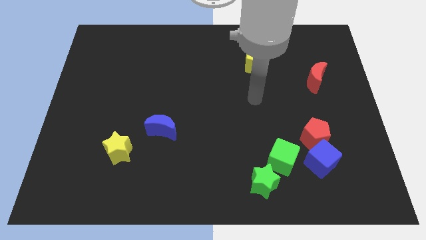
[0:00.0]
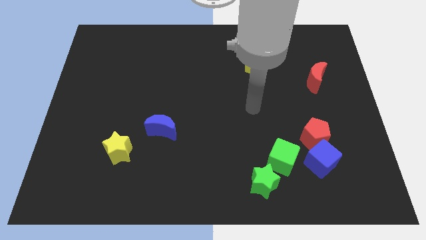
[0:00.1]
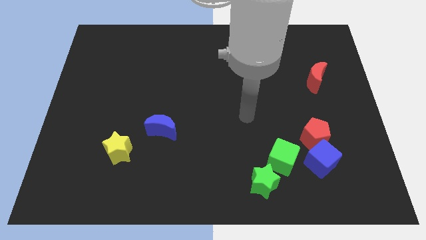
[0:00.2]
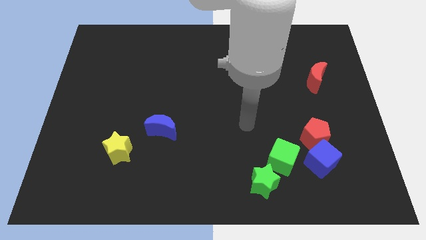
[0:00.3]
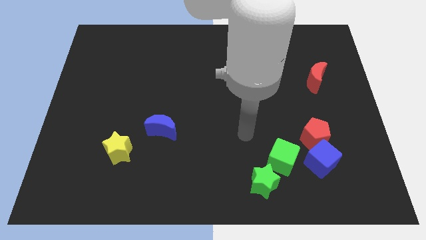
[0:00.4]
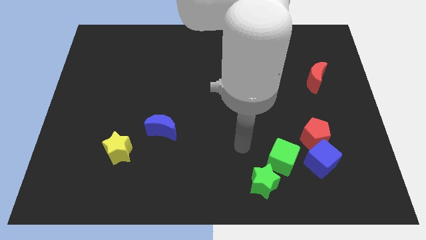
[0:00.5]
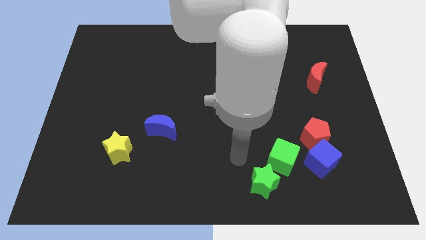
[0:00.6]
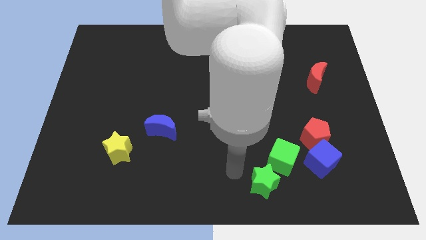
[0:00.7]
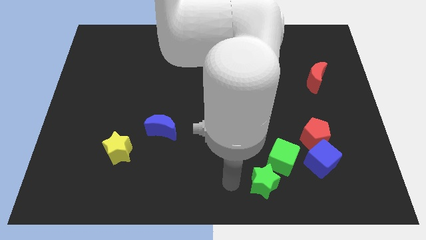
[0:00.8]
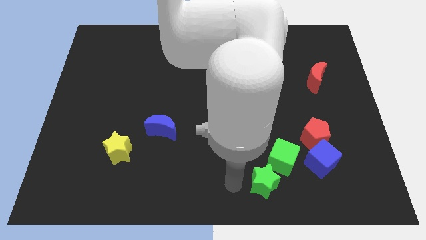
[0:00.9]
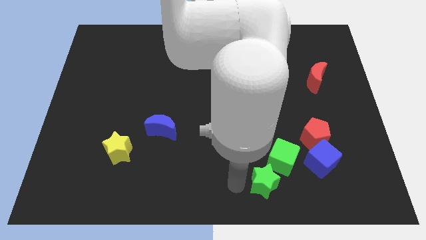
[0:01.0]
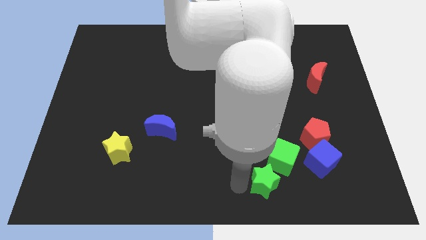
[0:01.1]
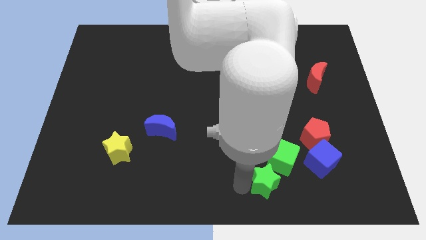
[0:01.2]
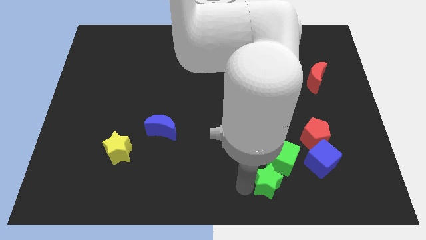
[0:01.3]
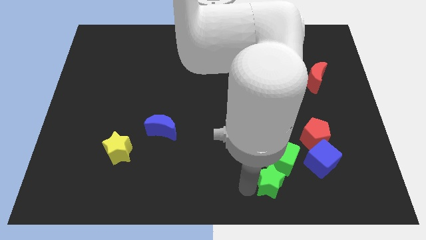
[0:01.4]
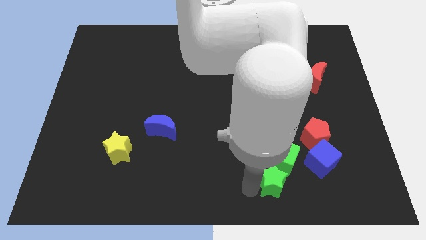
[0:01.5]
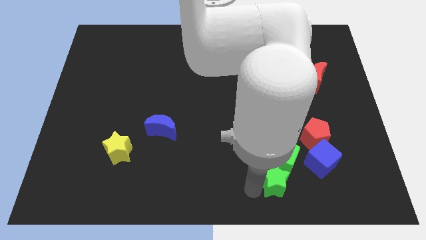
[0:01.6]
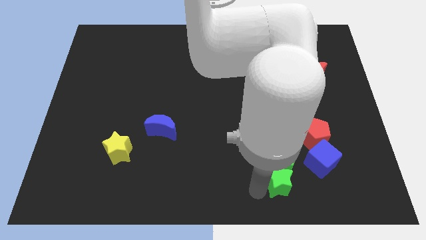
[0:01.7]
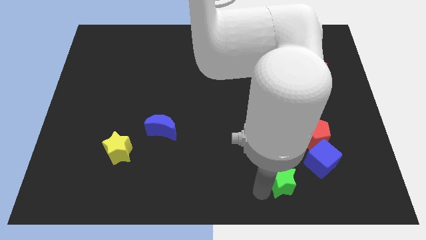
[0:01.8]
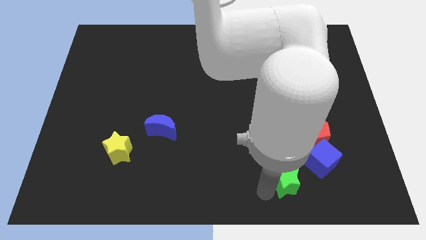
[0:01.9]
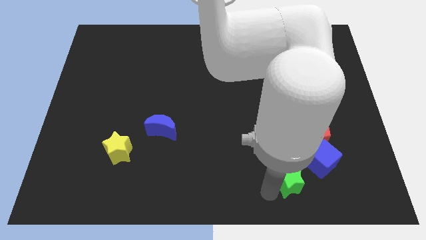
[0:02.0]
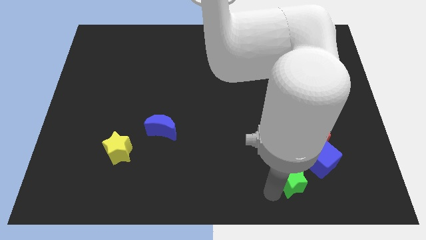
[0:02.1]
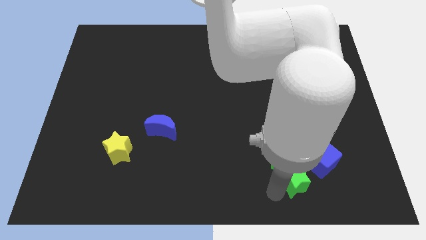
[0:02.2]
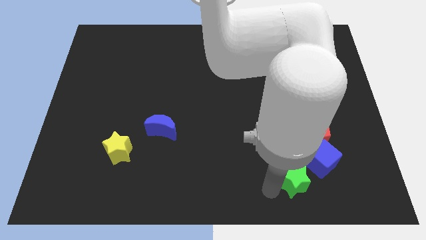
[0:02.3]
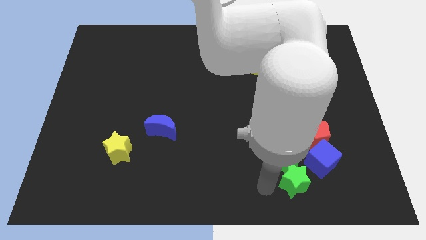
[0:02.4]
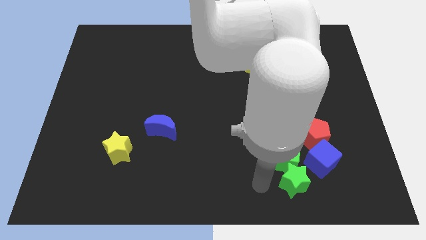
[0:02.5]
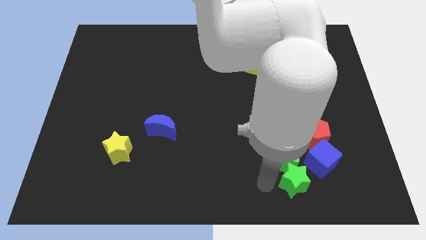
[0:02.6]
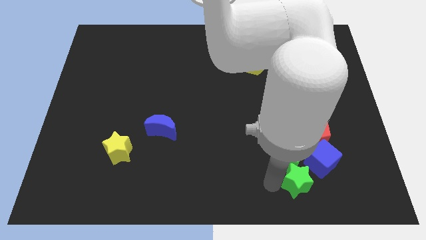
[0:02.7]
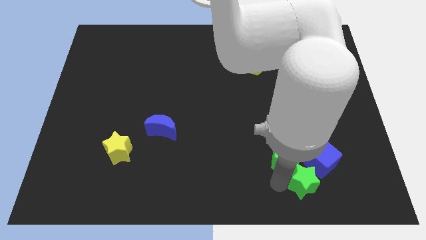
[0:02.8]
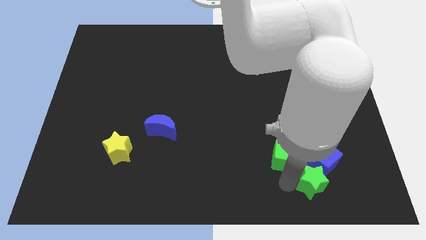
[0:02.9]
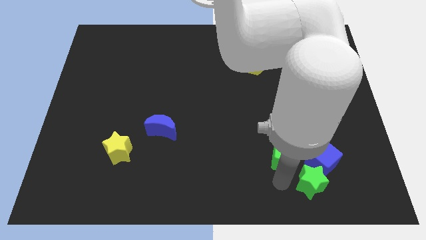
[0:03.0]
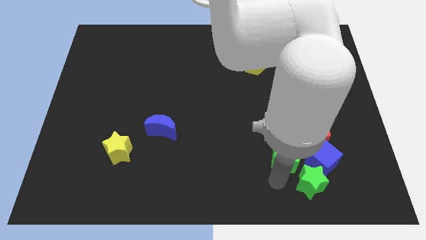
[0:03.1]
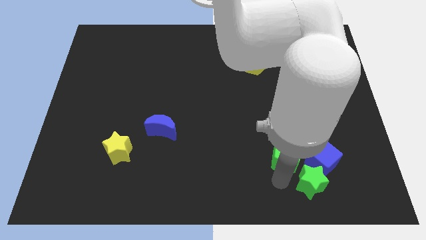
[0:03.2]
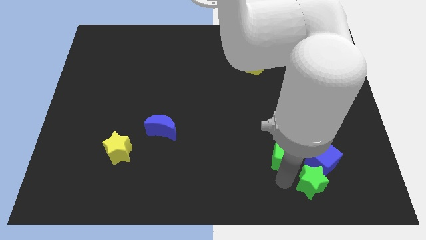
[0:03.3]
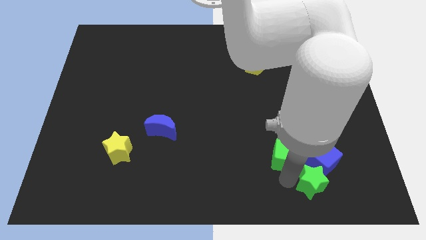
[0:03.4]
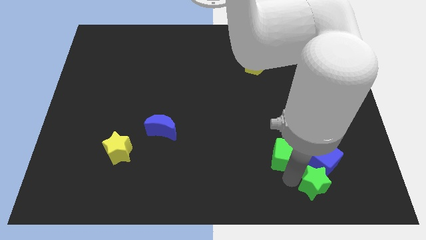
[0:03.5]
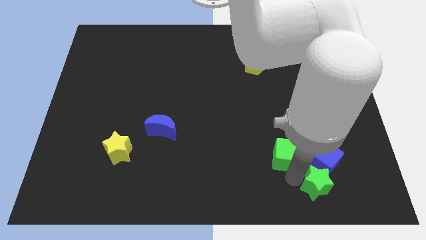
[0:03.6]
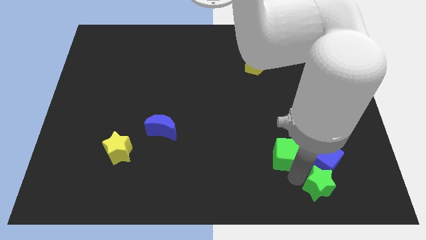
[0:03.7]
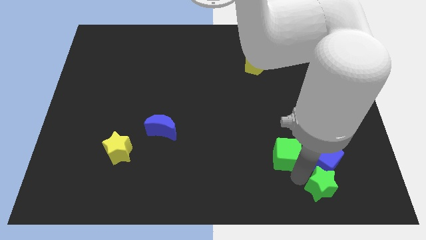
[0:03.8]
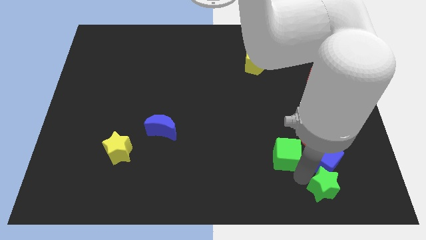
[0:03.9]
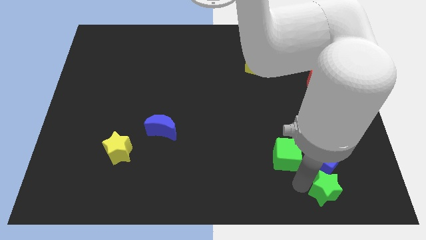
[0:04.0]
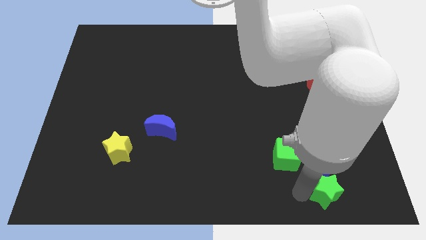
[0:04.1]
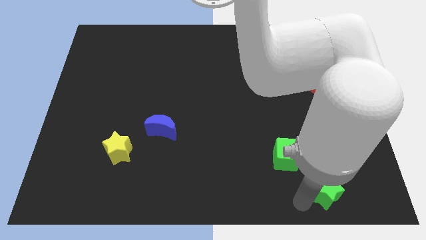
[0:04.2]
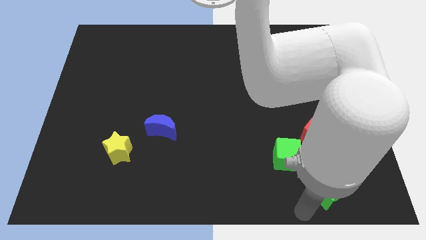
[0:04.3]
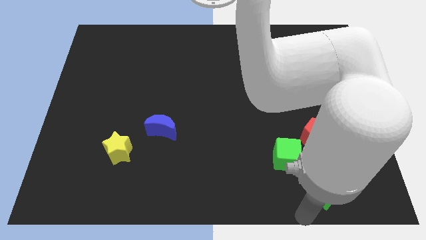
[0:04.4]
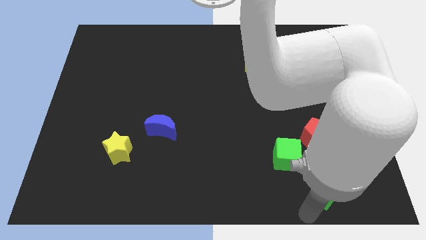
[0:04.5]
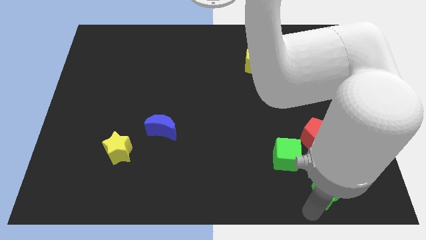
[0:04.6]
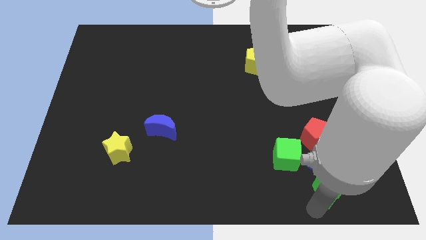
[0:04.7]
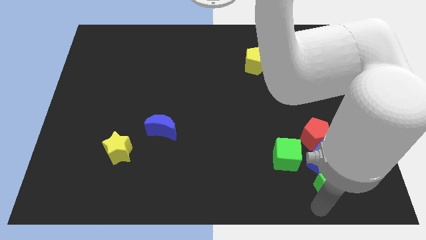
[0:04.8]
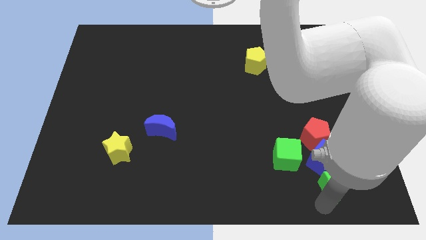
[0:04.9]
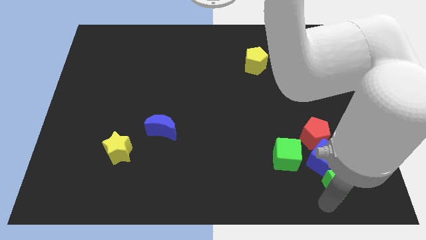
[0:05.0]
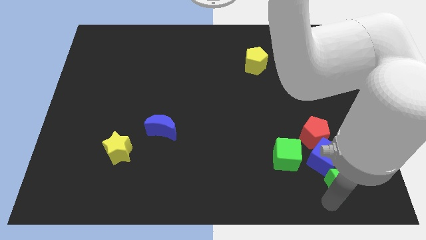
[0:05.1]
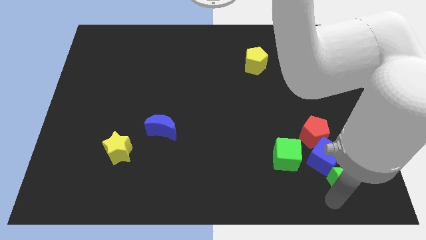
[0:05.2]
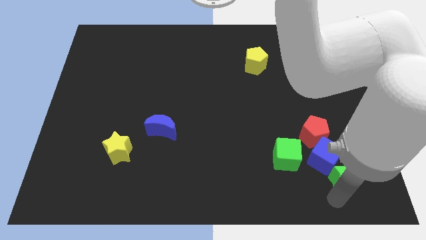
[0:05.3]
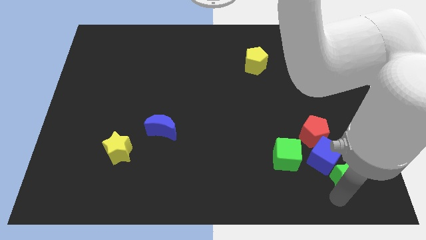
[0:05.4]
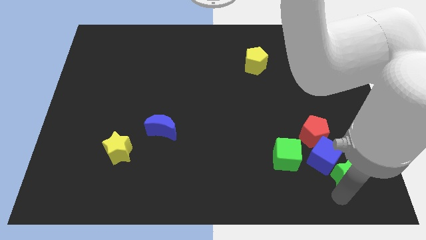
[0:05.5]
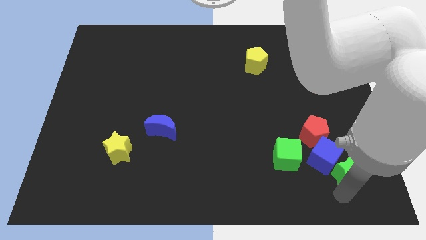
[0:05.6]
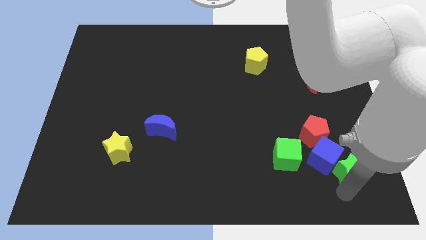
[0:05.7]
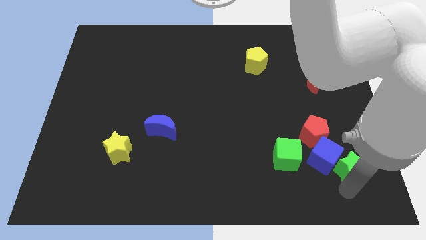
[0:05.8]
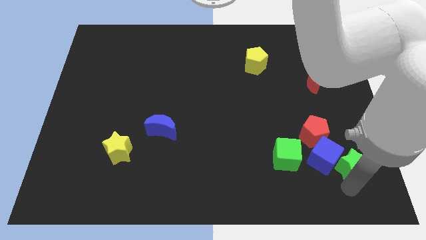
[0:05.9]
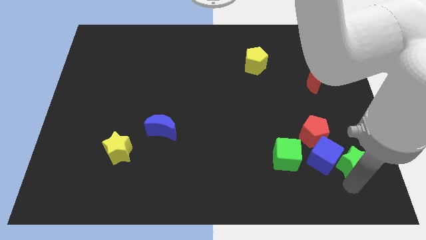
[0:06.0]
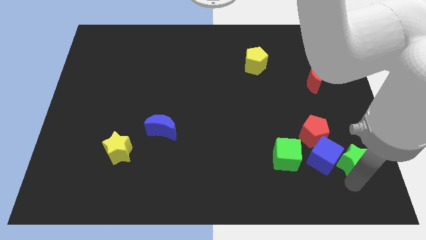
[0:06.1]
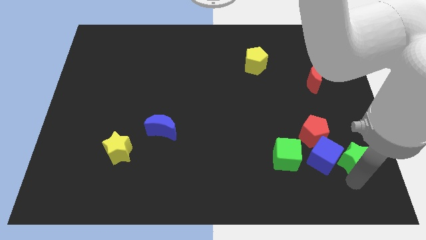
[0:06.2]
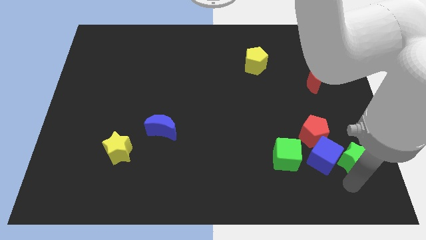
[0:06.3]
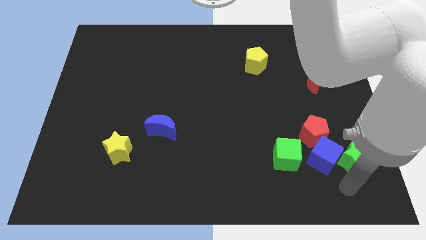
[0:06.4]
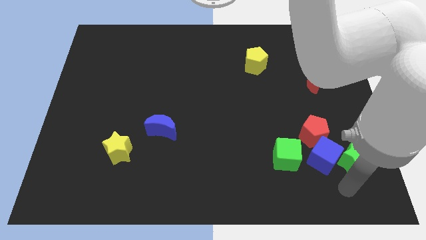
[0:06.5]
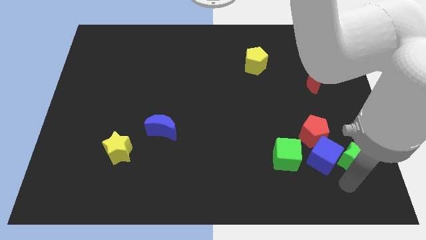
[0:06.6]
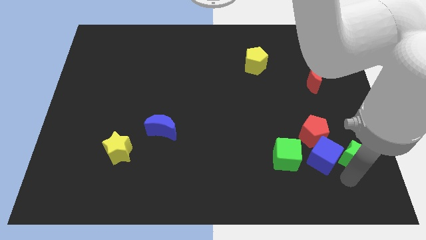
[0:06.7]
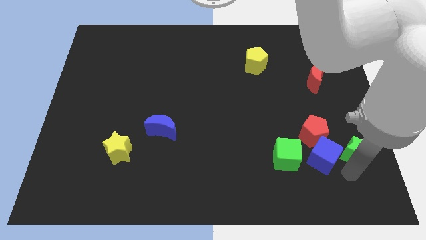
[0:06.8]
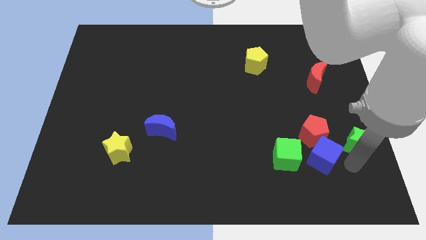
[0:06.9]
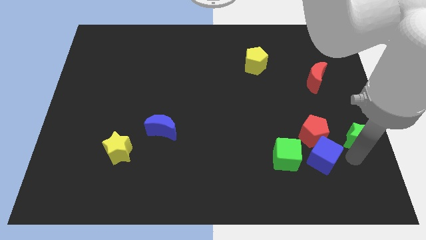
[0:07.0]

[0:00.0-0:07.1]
put the green star to the right side of the board

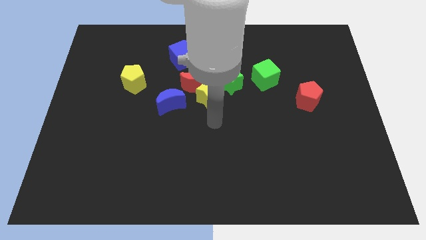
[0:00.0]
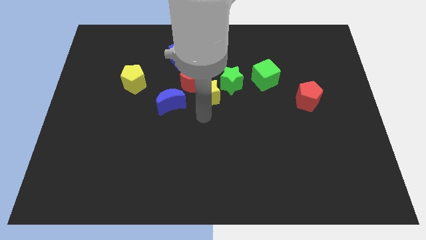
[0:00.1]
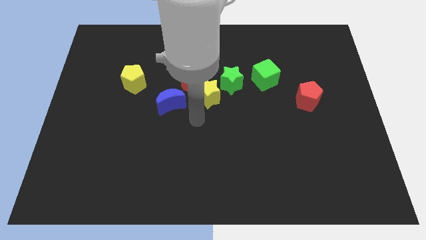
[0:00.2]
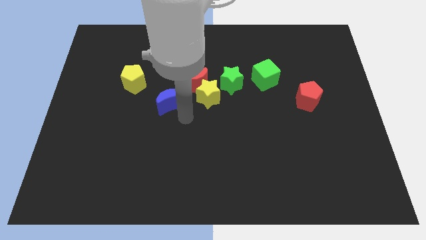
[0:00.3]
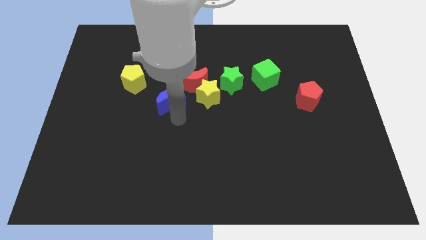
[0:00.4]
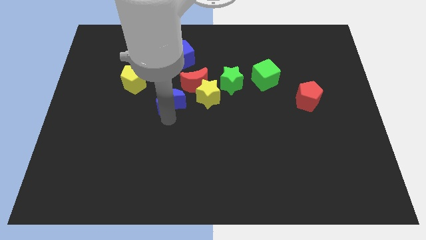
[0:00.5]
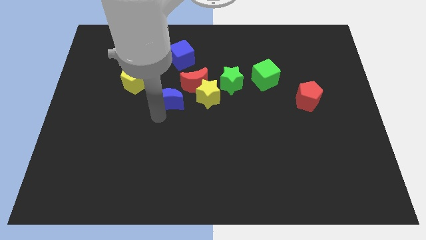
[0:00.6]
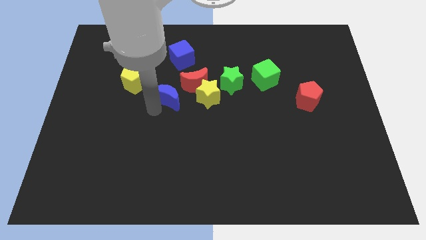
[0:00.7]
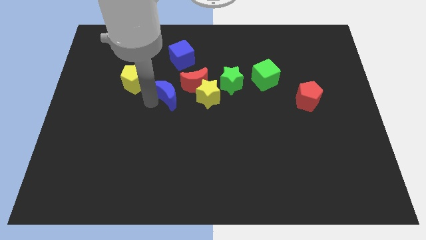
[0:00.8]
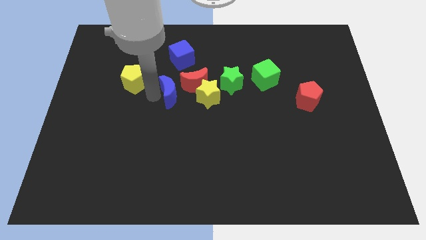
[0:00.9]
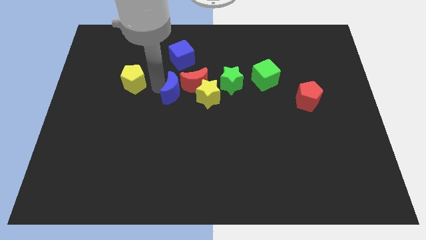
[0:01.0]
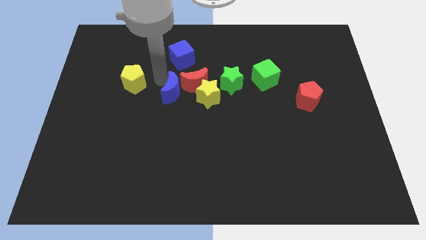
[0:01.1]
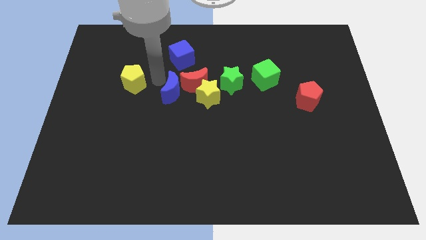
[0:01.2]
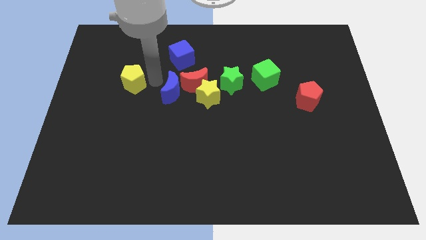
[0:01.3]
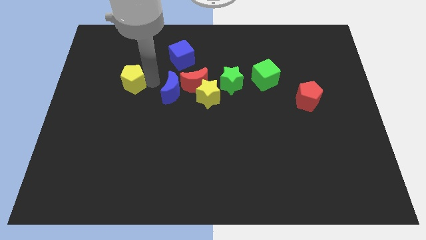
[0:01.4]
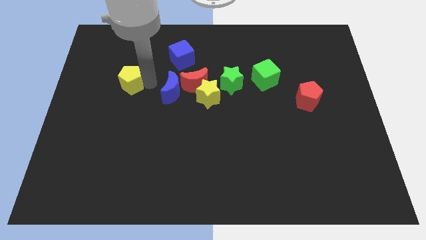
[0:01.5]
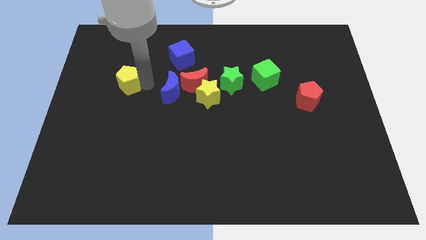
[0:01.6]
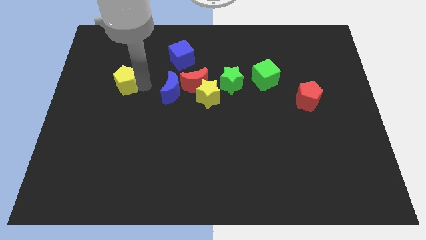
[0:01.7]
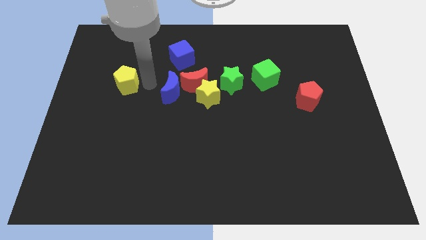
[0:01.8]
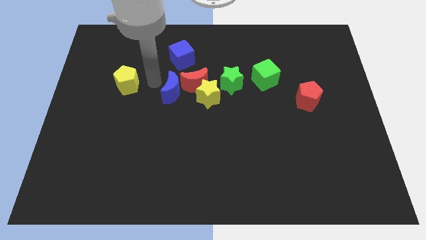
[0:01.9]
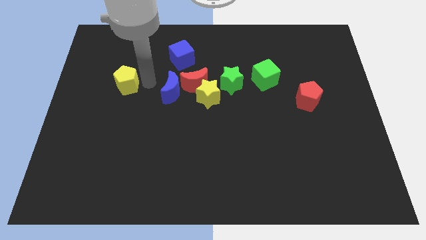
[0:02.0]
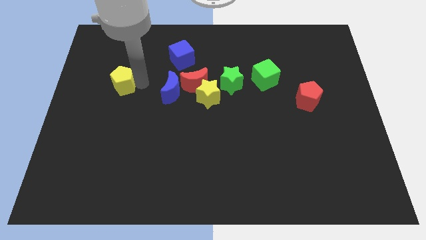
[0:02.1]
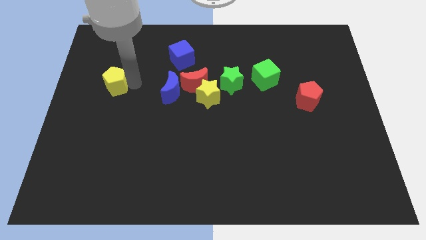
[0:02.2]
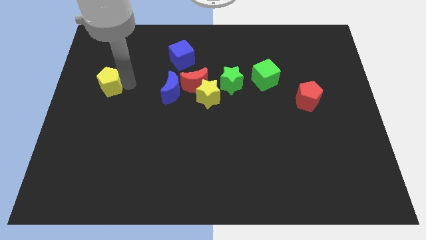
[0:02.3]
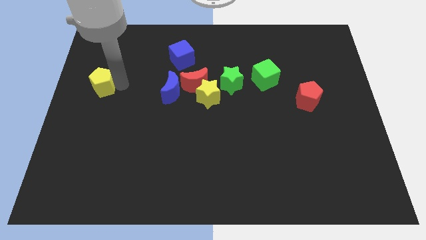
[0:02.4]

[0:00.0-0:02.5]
slide the yellow pentagon to the left side
